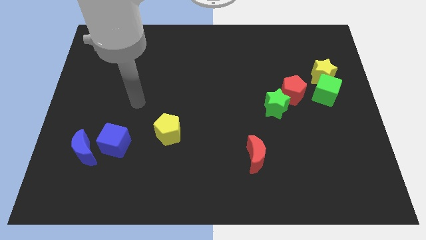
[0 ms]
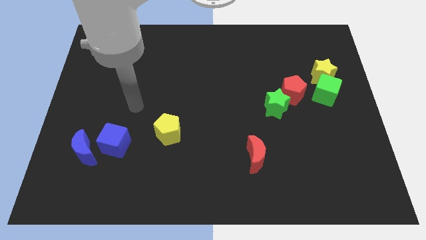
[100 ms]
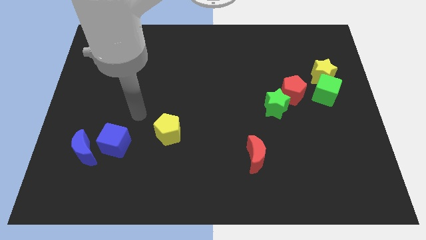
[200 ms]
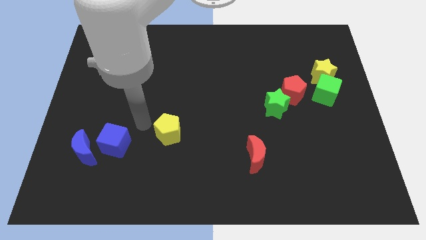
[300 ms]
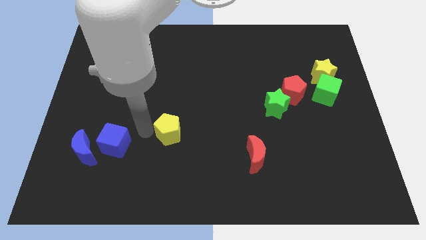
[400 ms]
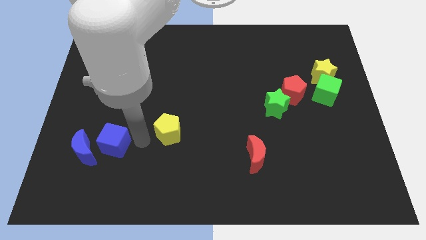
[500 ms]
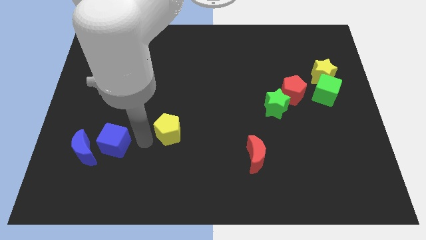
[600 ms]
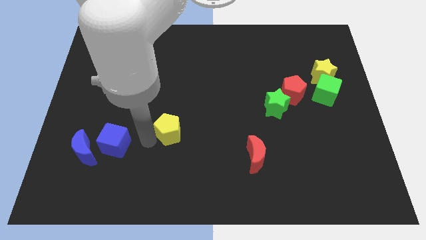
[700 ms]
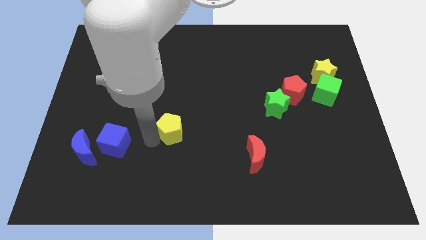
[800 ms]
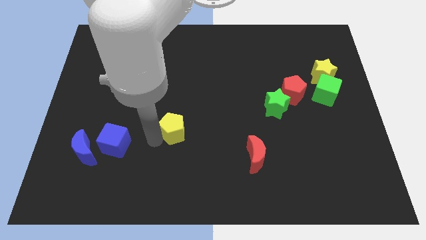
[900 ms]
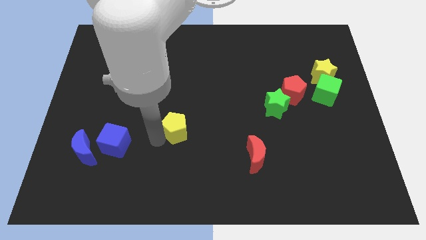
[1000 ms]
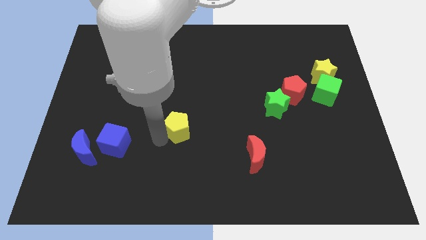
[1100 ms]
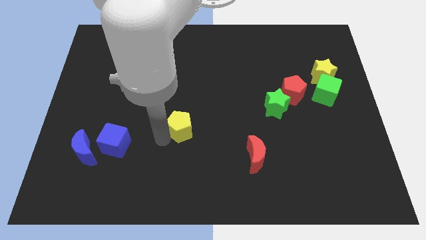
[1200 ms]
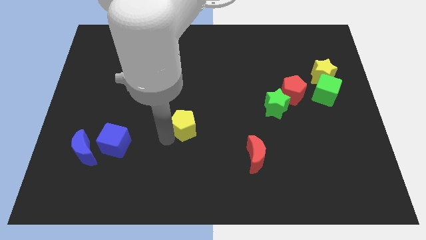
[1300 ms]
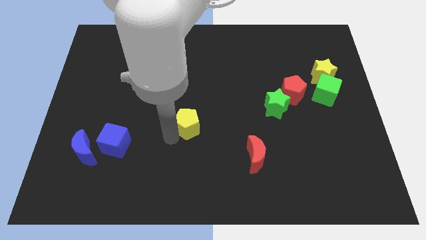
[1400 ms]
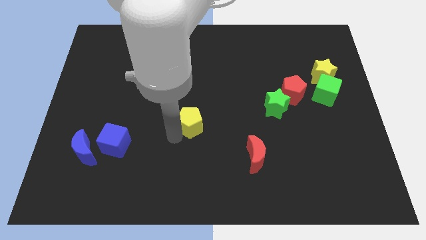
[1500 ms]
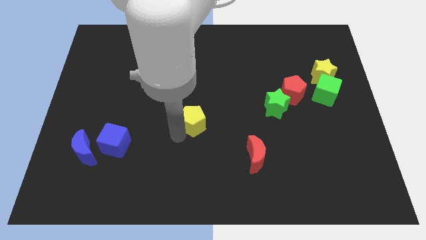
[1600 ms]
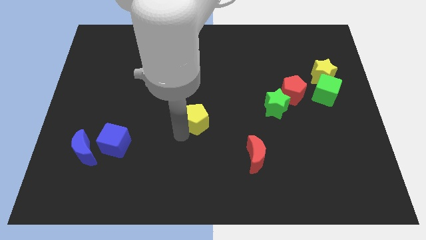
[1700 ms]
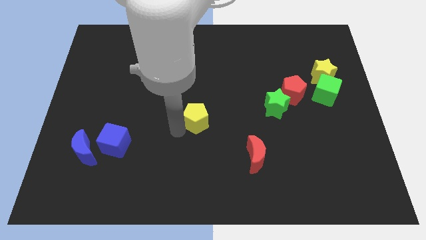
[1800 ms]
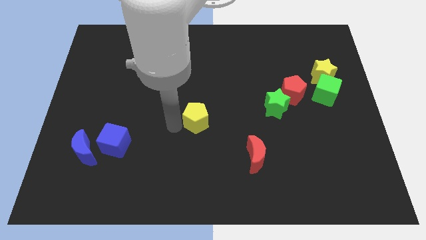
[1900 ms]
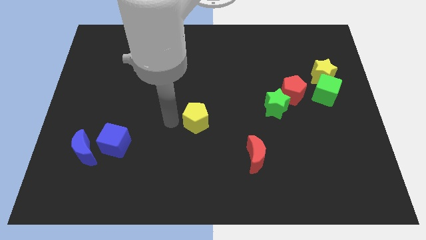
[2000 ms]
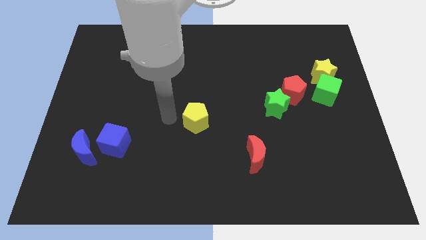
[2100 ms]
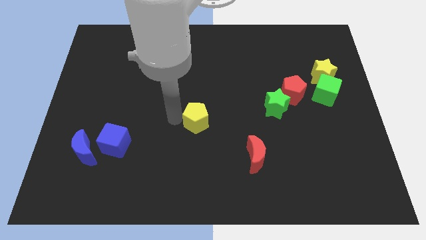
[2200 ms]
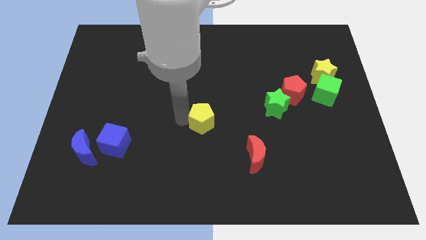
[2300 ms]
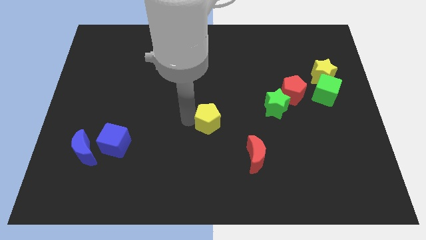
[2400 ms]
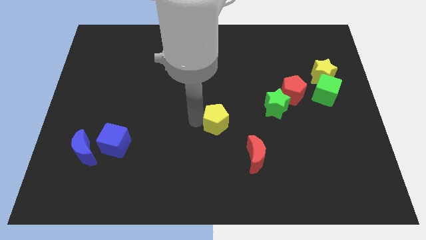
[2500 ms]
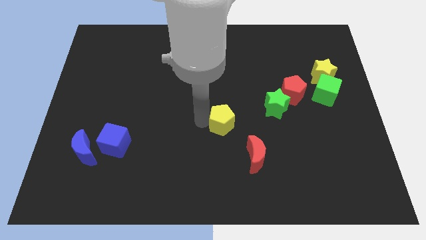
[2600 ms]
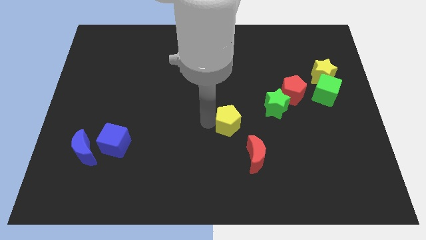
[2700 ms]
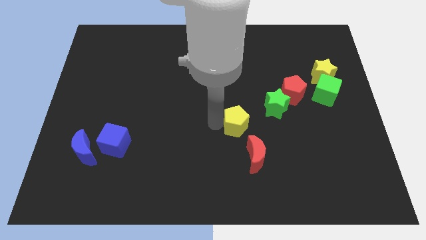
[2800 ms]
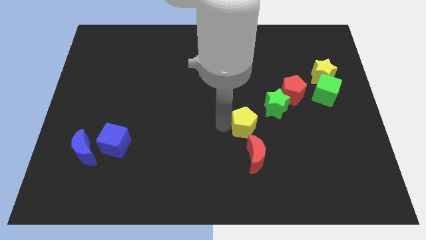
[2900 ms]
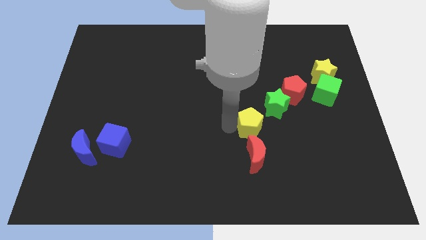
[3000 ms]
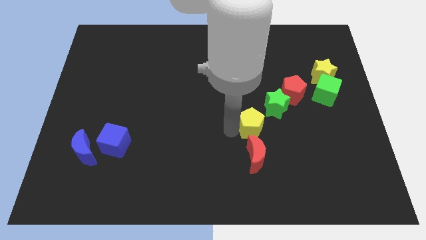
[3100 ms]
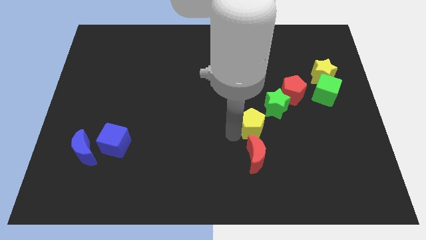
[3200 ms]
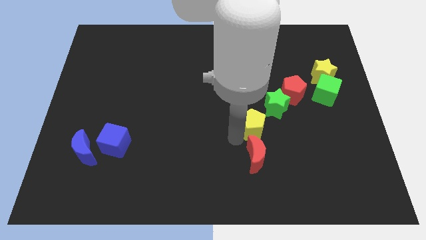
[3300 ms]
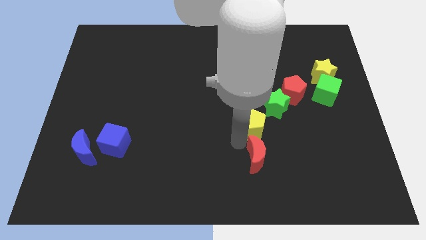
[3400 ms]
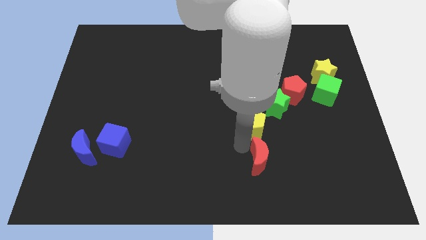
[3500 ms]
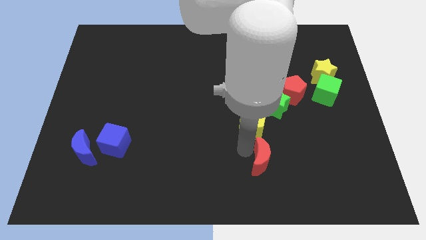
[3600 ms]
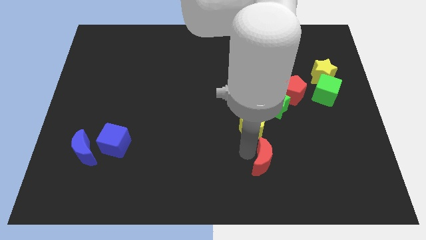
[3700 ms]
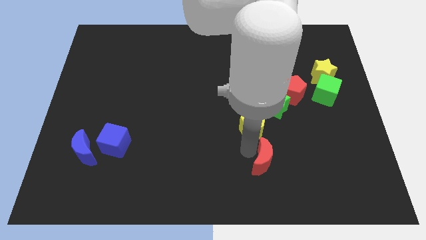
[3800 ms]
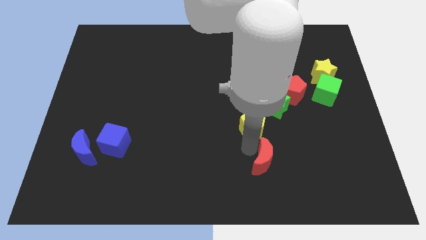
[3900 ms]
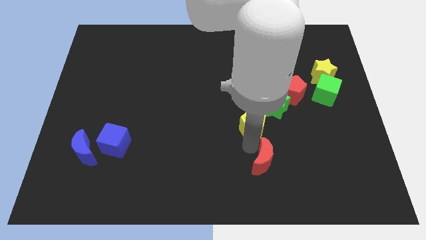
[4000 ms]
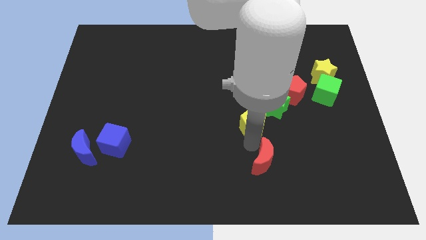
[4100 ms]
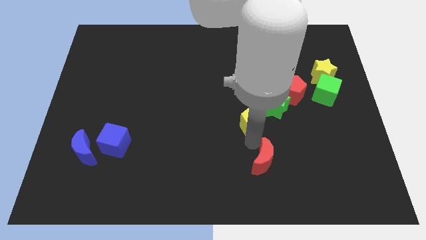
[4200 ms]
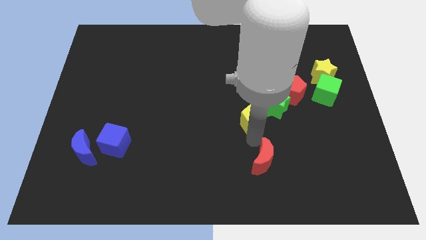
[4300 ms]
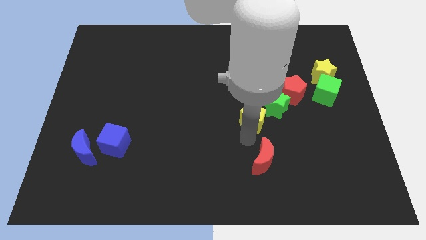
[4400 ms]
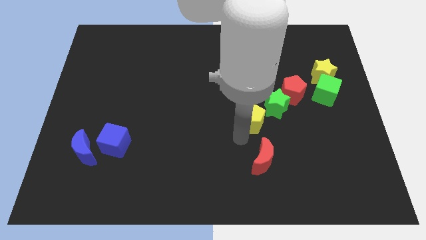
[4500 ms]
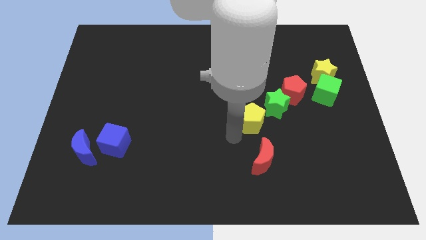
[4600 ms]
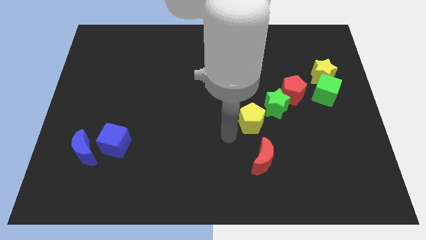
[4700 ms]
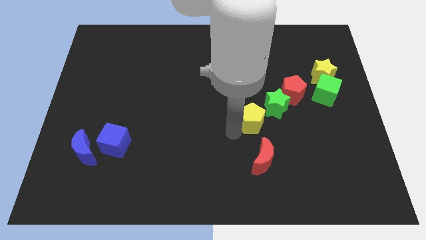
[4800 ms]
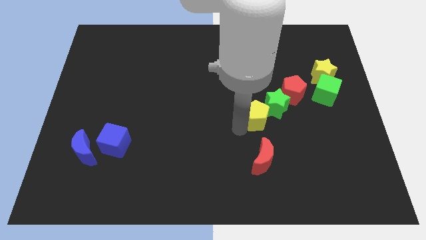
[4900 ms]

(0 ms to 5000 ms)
put the yellow pentagon to the green star
